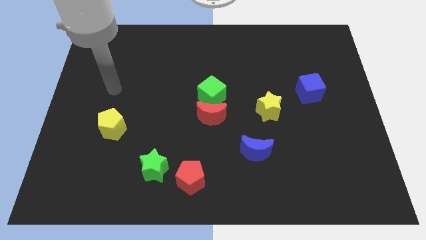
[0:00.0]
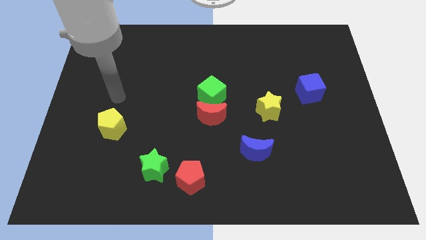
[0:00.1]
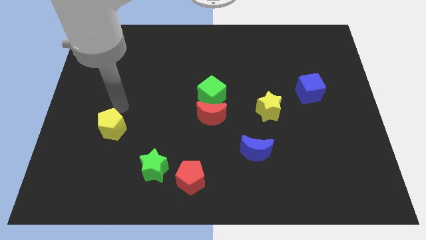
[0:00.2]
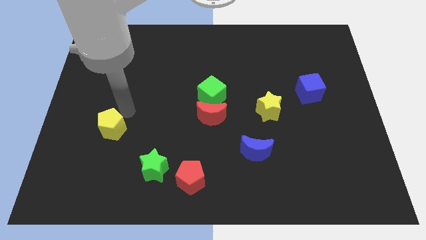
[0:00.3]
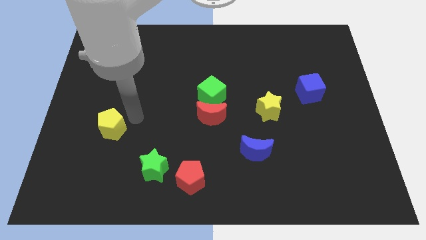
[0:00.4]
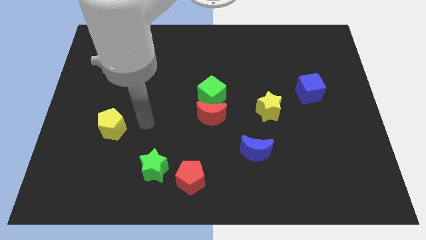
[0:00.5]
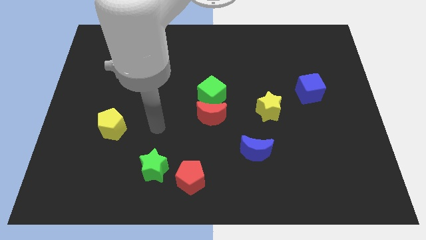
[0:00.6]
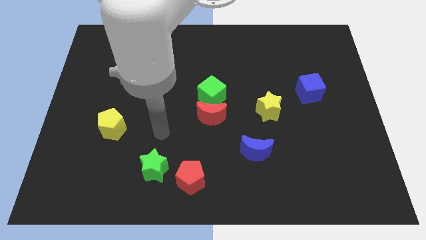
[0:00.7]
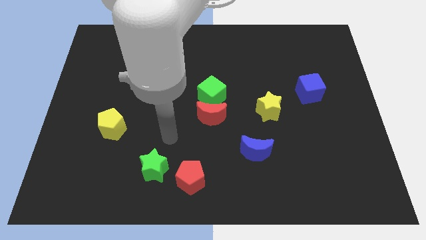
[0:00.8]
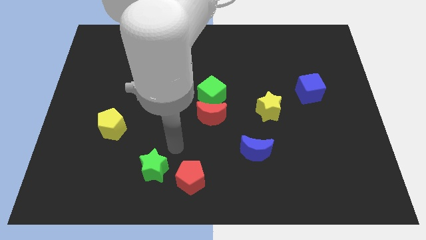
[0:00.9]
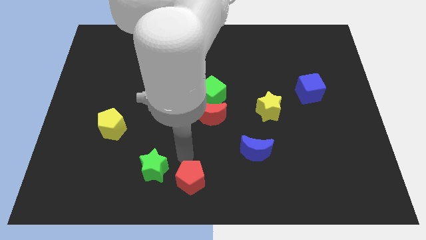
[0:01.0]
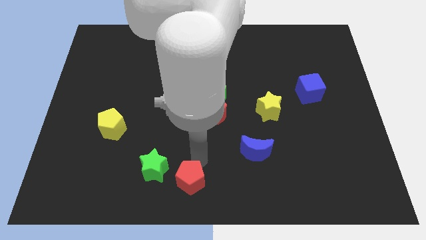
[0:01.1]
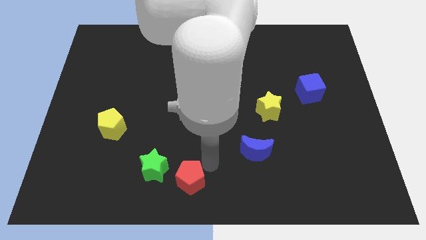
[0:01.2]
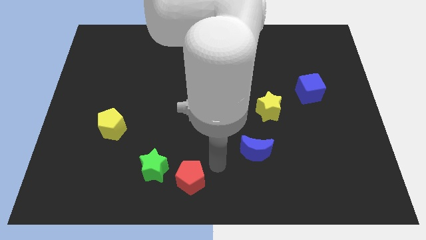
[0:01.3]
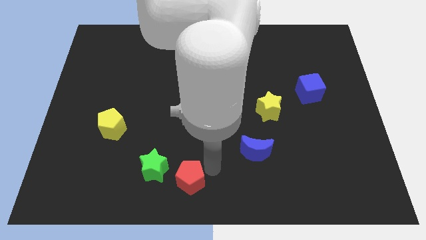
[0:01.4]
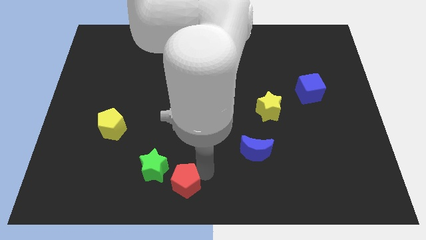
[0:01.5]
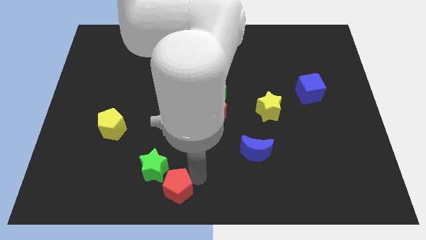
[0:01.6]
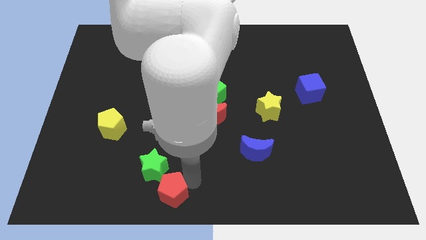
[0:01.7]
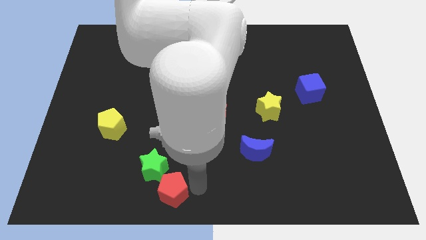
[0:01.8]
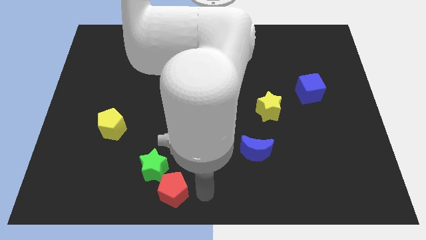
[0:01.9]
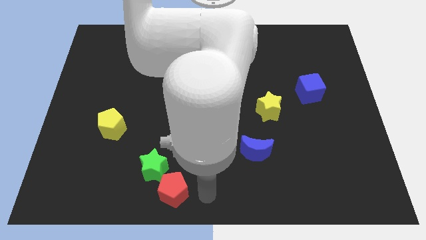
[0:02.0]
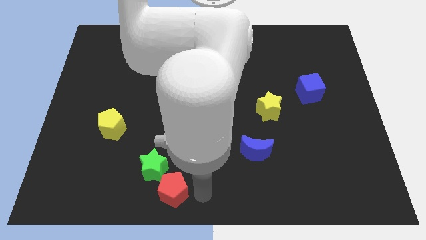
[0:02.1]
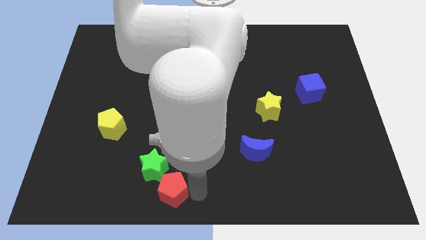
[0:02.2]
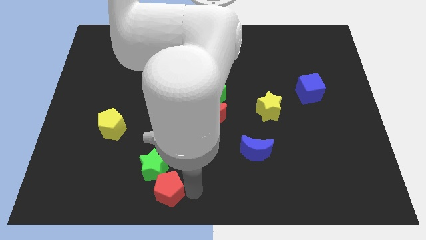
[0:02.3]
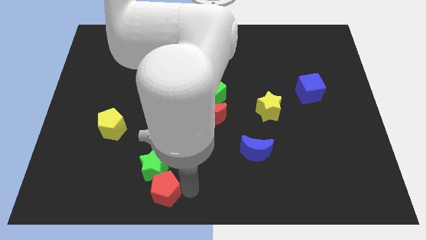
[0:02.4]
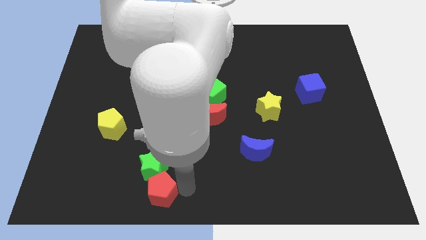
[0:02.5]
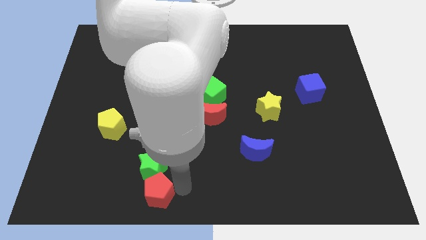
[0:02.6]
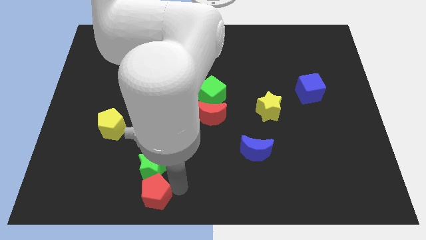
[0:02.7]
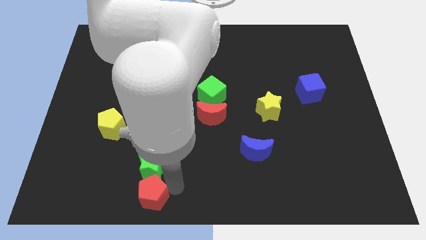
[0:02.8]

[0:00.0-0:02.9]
slightly move the red pentagon left

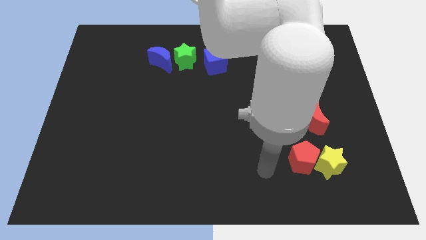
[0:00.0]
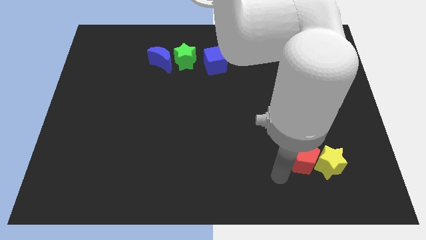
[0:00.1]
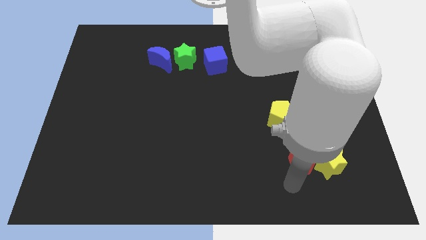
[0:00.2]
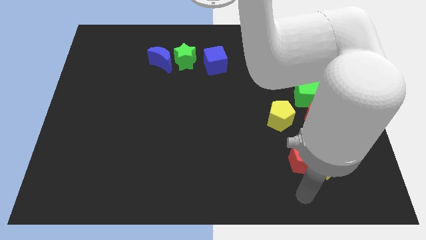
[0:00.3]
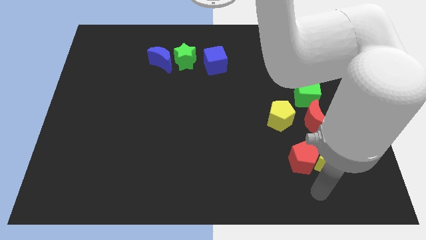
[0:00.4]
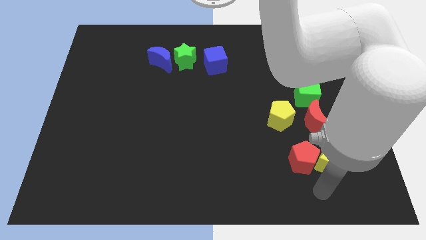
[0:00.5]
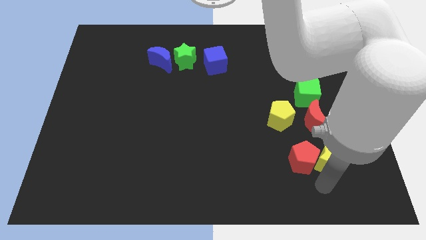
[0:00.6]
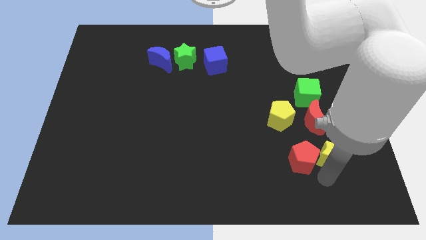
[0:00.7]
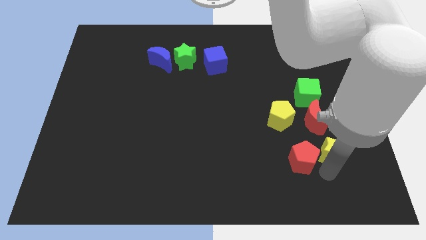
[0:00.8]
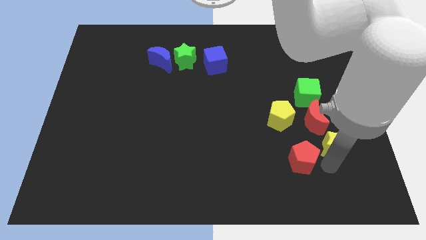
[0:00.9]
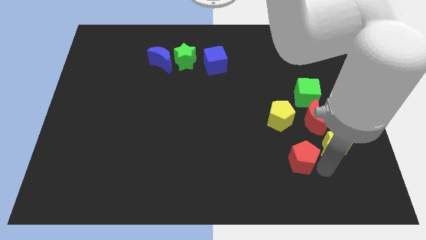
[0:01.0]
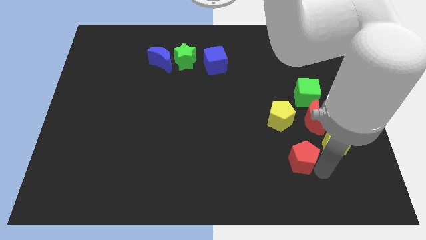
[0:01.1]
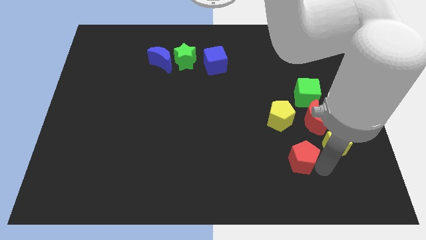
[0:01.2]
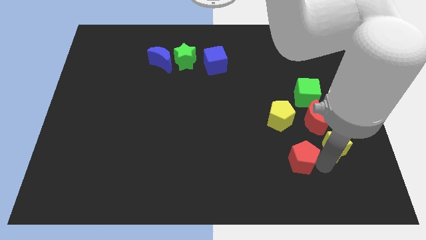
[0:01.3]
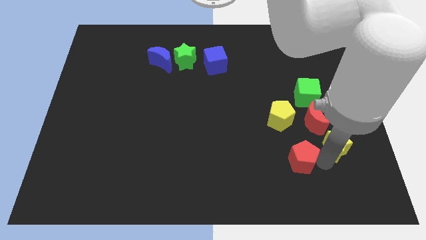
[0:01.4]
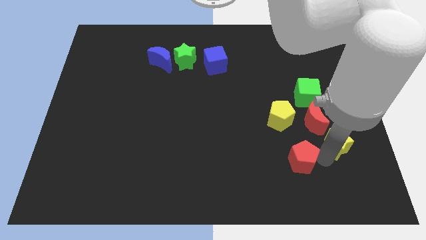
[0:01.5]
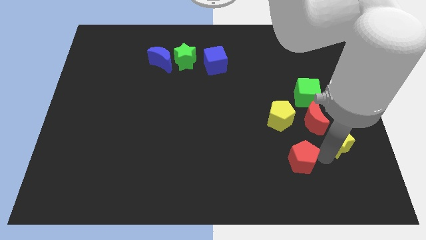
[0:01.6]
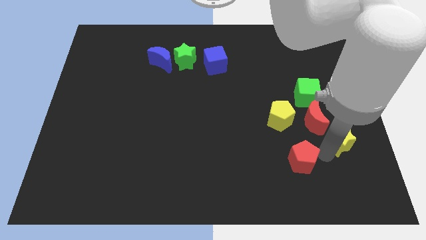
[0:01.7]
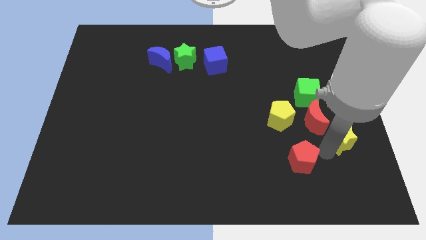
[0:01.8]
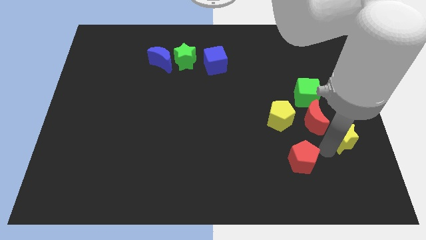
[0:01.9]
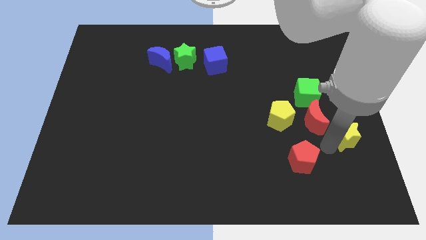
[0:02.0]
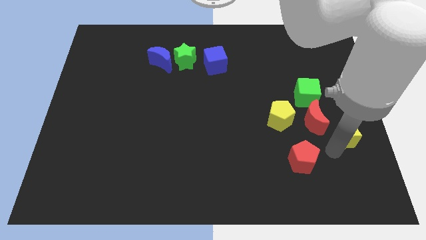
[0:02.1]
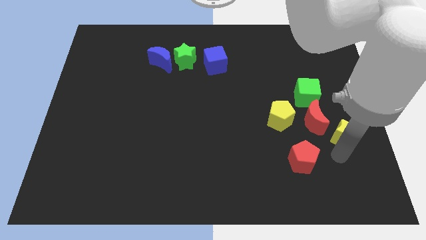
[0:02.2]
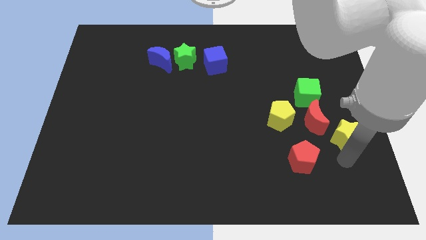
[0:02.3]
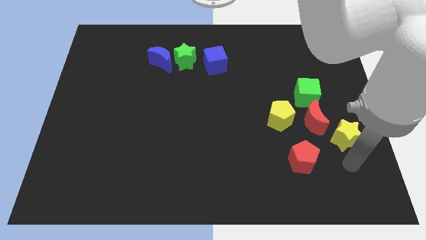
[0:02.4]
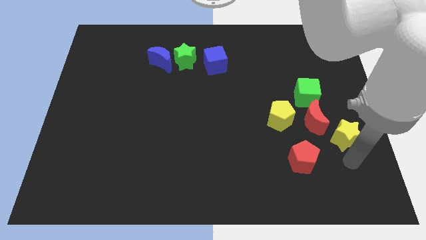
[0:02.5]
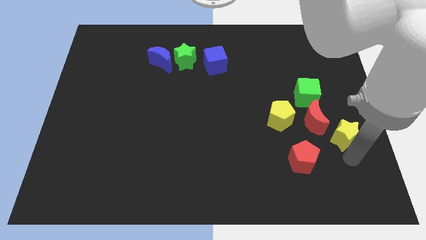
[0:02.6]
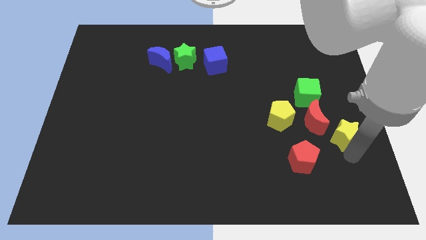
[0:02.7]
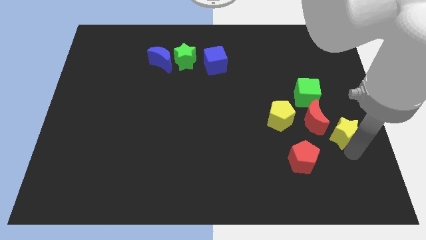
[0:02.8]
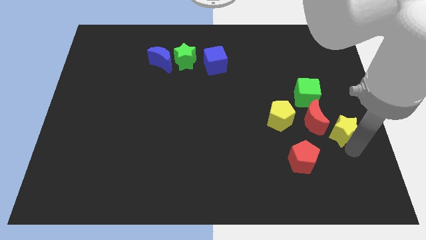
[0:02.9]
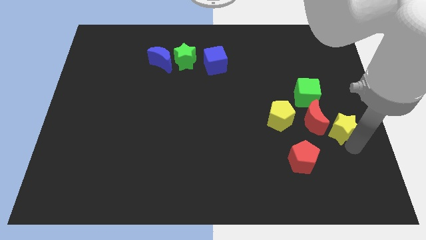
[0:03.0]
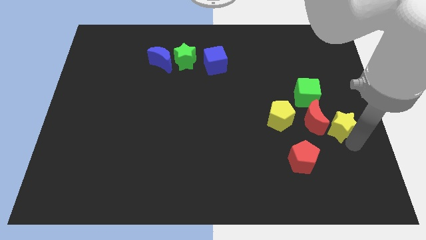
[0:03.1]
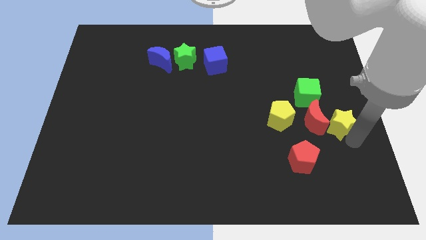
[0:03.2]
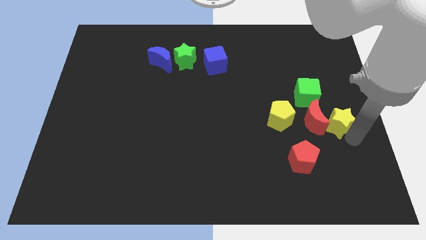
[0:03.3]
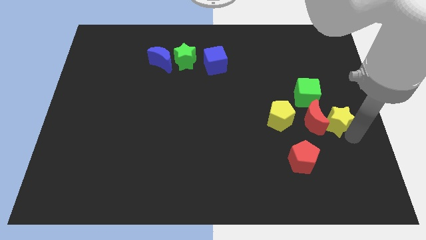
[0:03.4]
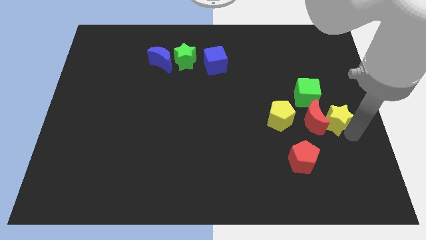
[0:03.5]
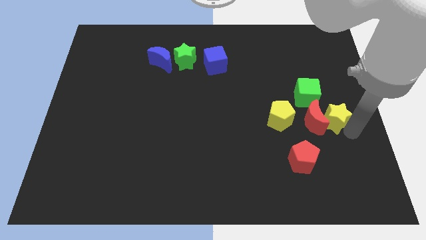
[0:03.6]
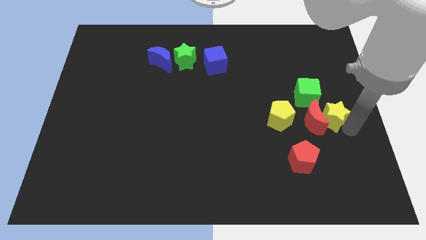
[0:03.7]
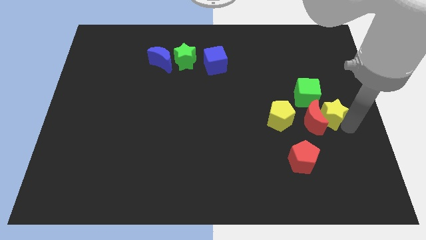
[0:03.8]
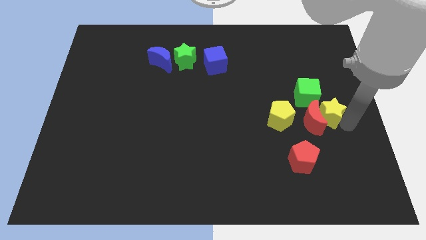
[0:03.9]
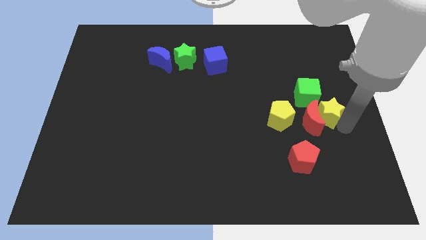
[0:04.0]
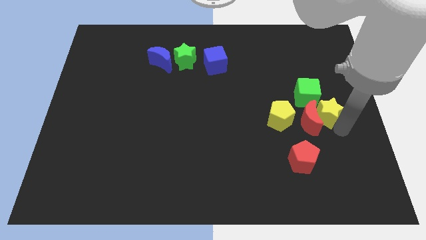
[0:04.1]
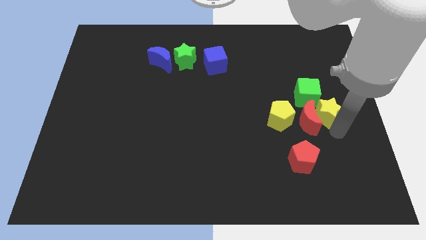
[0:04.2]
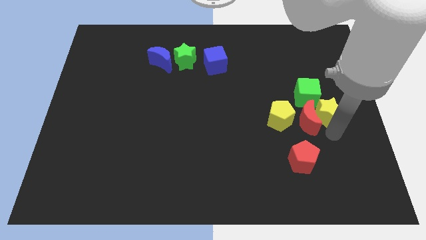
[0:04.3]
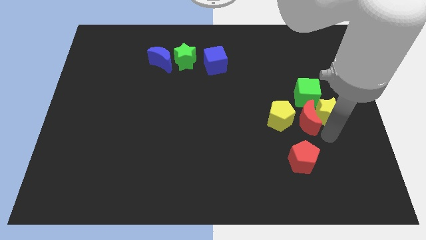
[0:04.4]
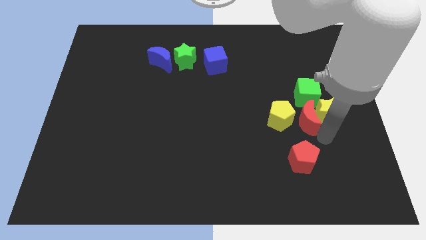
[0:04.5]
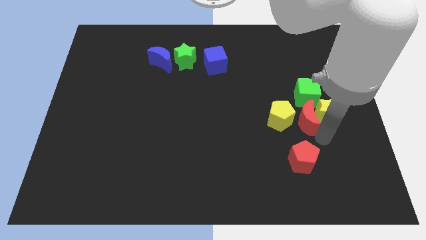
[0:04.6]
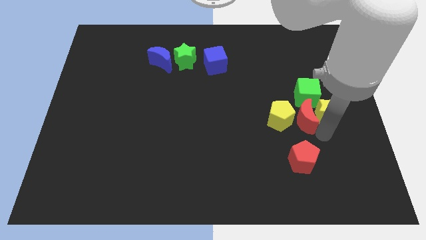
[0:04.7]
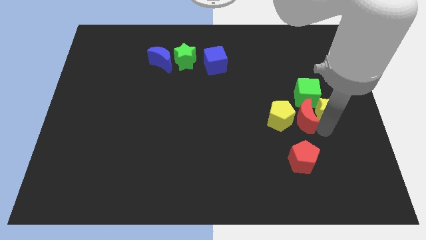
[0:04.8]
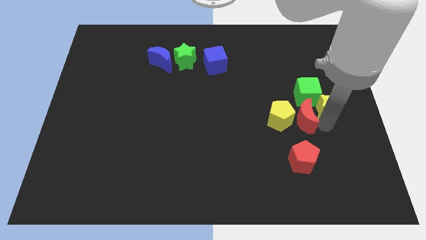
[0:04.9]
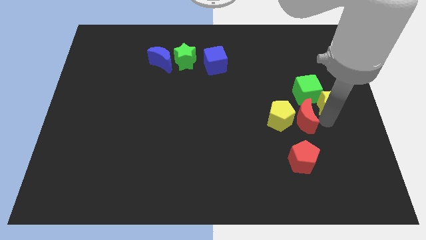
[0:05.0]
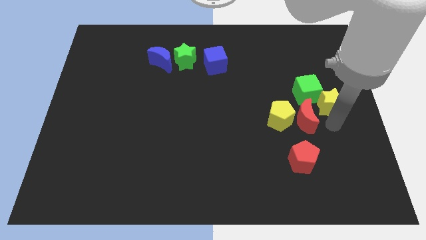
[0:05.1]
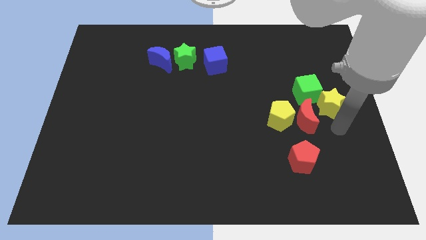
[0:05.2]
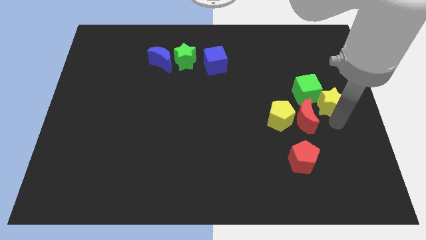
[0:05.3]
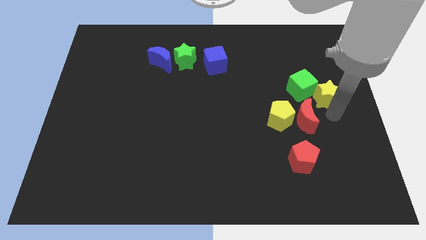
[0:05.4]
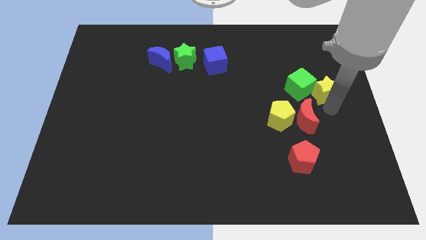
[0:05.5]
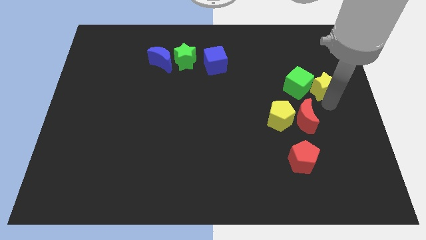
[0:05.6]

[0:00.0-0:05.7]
move the yellow star up

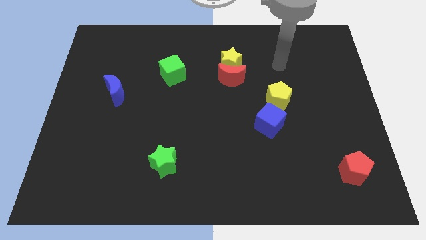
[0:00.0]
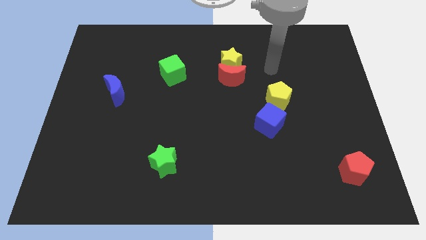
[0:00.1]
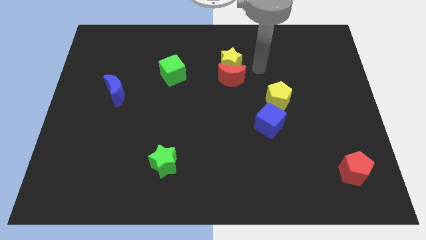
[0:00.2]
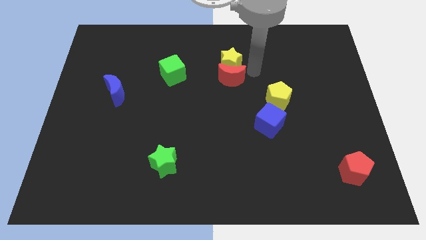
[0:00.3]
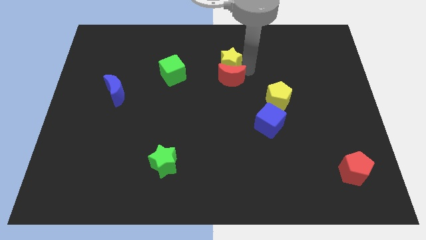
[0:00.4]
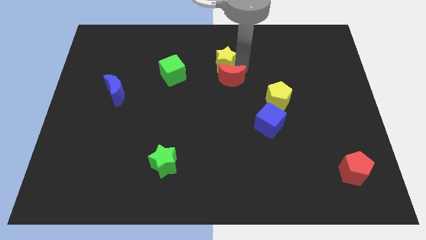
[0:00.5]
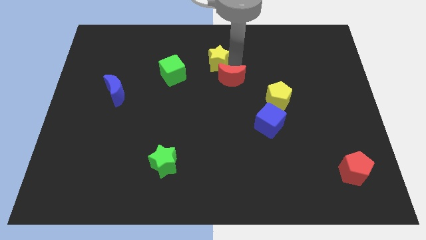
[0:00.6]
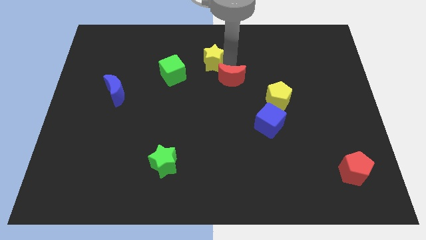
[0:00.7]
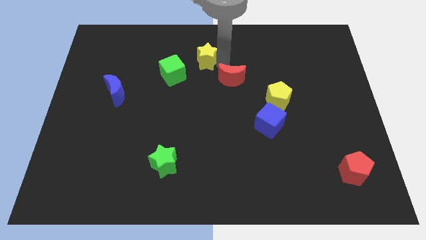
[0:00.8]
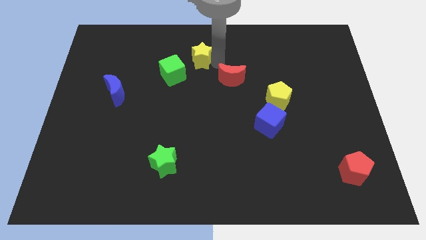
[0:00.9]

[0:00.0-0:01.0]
move the yellow star to the left slightly
